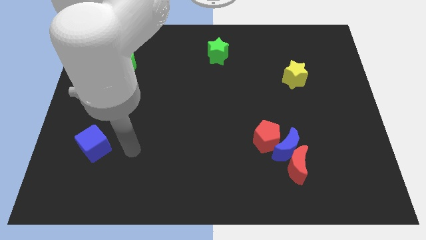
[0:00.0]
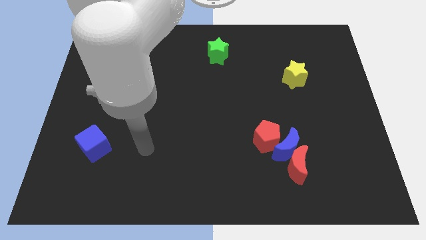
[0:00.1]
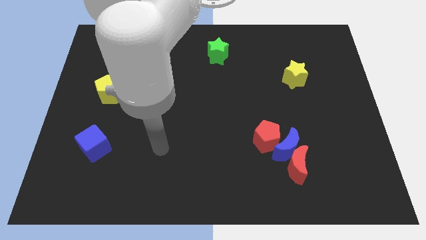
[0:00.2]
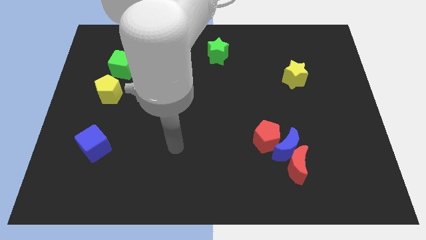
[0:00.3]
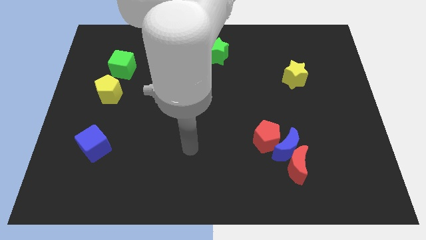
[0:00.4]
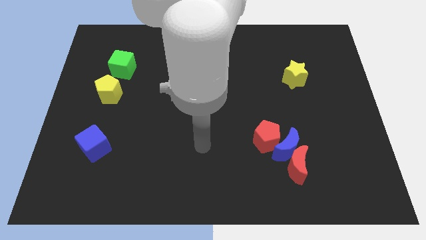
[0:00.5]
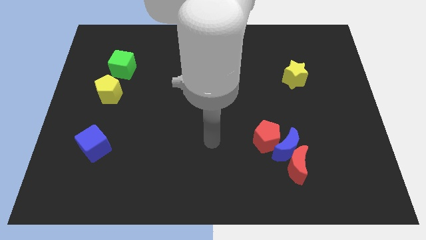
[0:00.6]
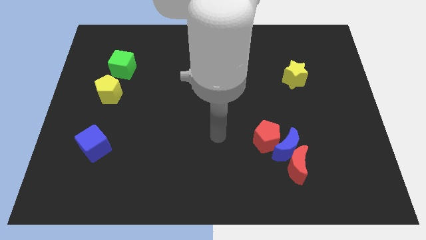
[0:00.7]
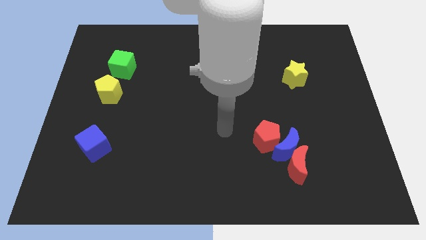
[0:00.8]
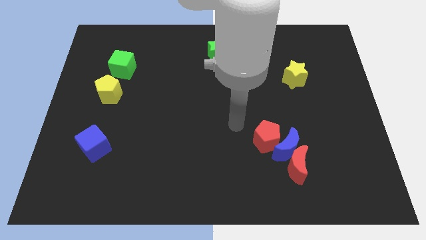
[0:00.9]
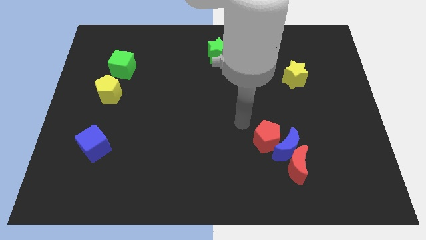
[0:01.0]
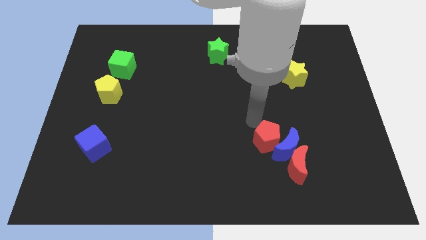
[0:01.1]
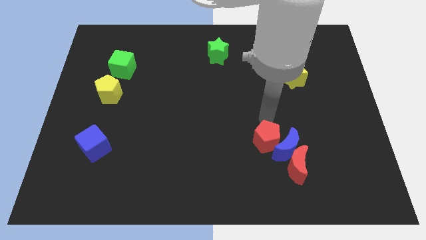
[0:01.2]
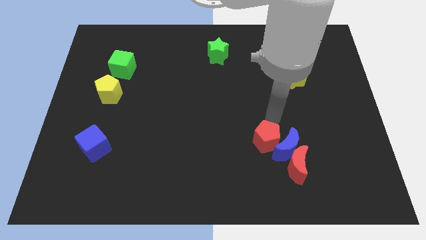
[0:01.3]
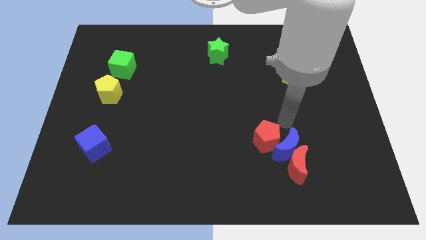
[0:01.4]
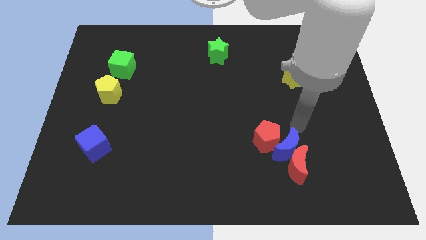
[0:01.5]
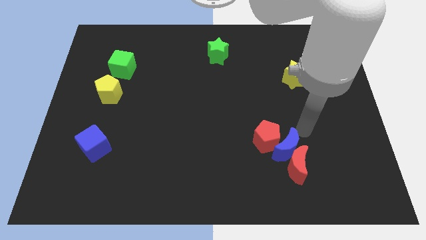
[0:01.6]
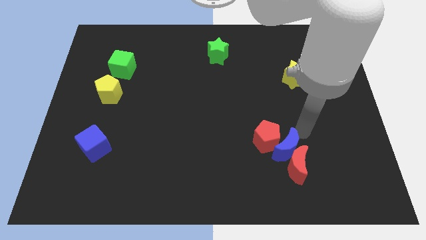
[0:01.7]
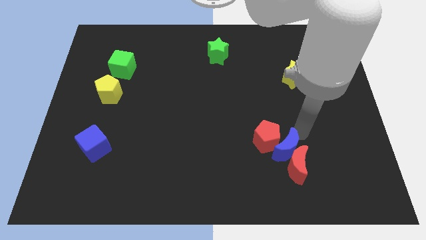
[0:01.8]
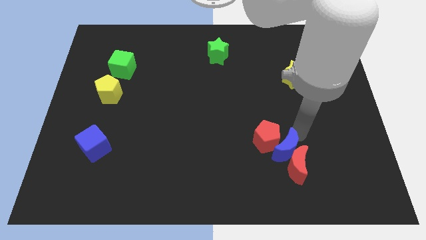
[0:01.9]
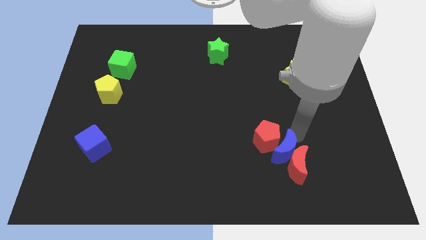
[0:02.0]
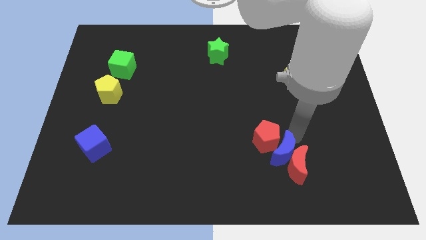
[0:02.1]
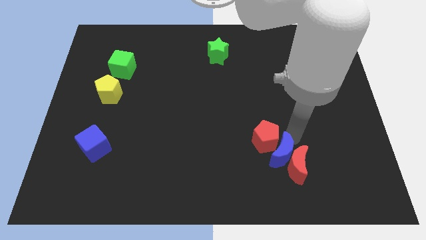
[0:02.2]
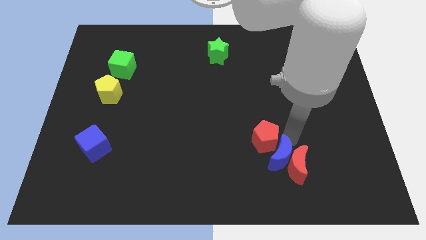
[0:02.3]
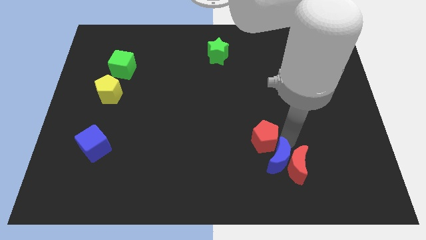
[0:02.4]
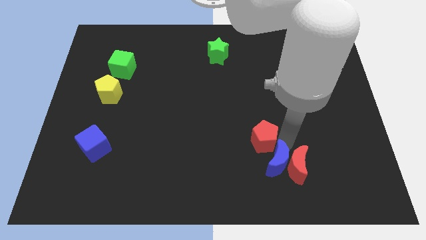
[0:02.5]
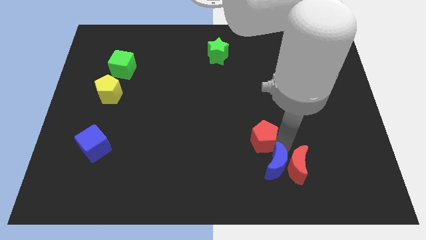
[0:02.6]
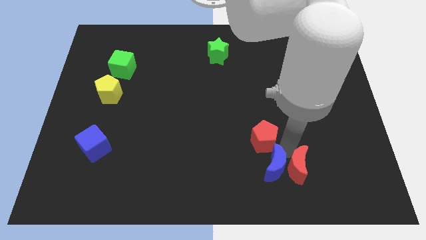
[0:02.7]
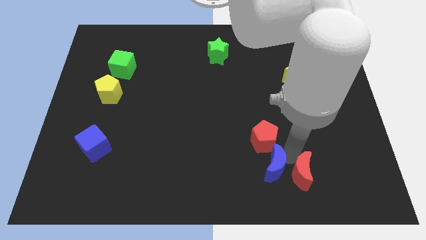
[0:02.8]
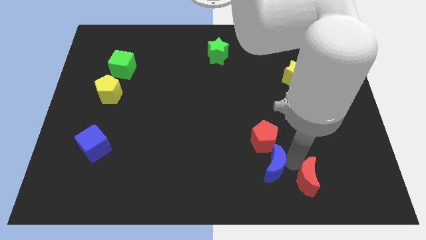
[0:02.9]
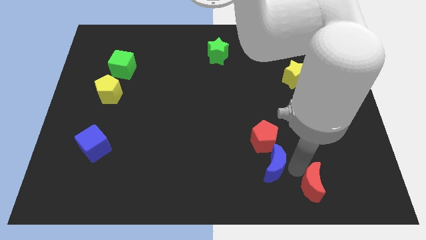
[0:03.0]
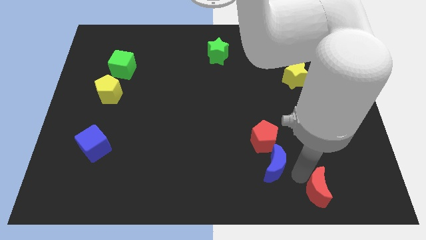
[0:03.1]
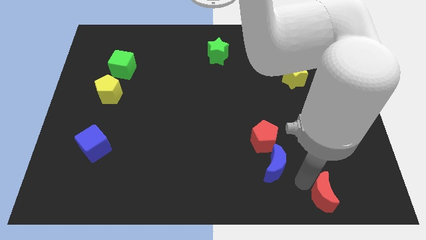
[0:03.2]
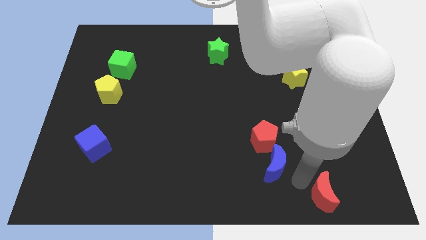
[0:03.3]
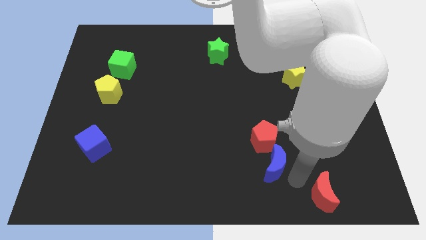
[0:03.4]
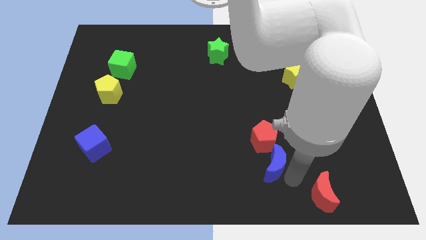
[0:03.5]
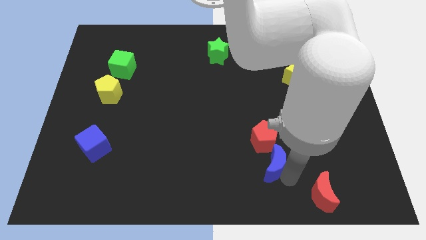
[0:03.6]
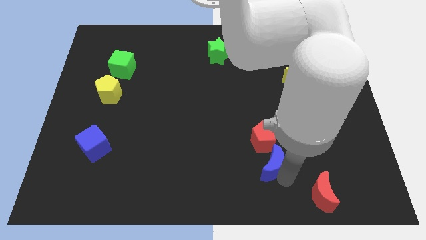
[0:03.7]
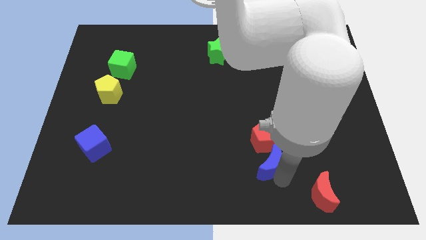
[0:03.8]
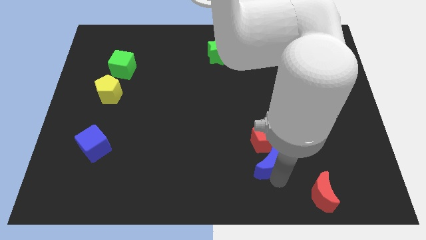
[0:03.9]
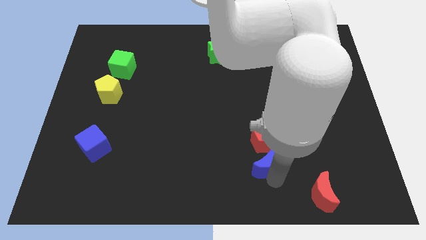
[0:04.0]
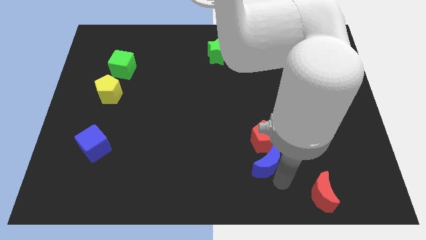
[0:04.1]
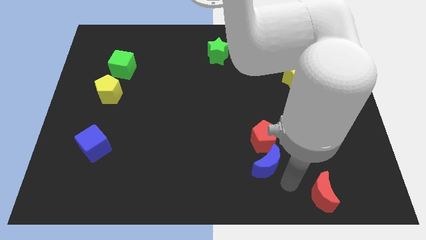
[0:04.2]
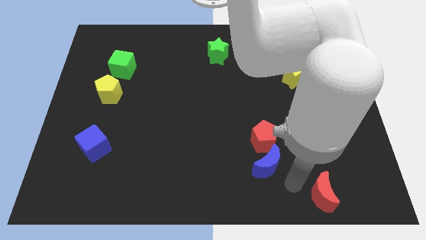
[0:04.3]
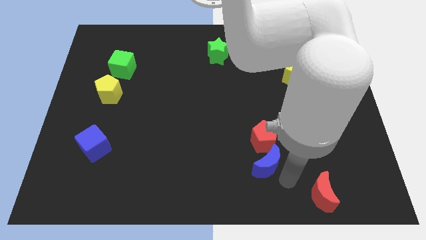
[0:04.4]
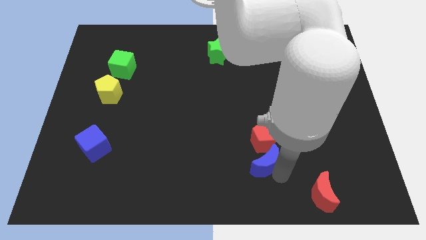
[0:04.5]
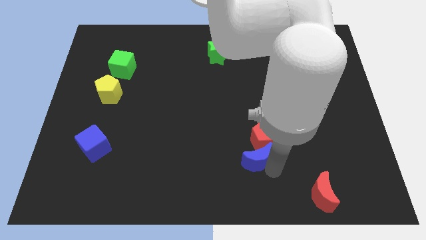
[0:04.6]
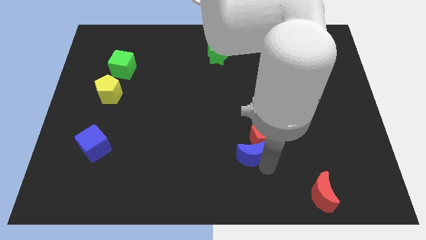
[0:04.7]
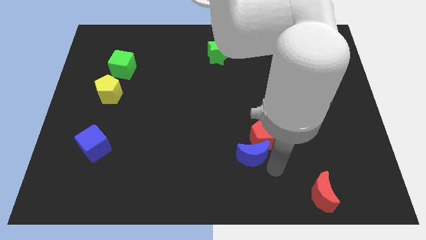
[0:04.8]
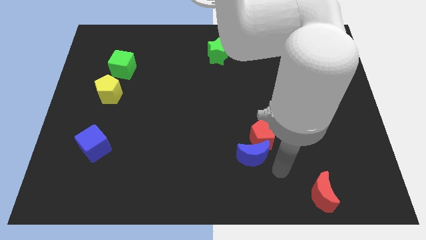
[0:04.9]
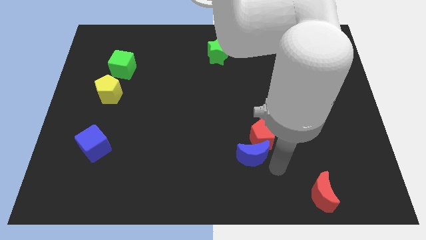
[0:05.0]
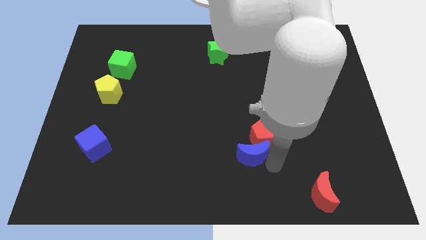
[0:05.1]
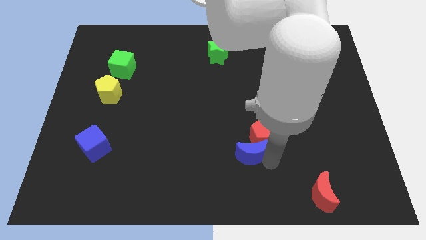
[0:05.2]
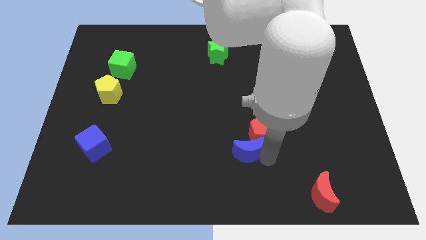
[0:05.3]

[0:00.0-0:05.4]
put the blue moon left of the red pentagon

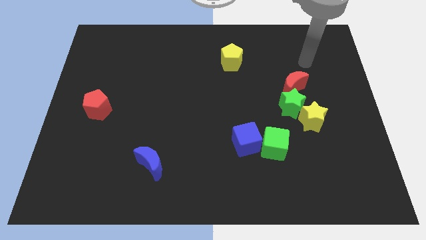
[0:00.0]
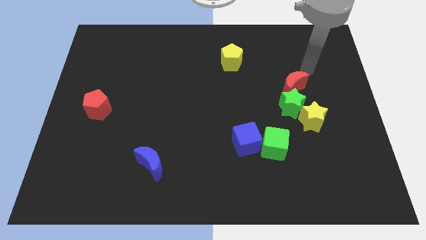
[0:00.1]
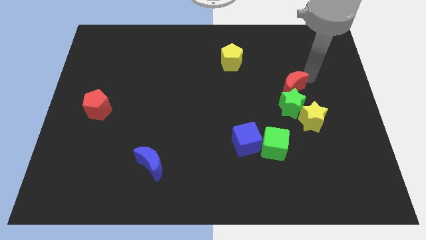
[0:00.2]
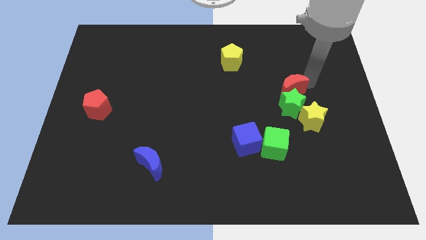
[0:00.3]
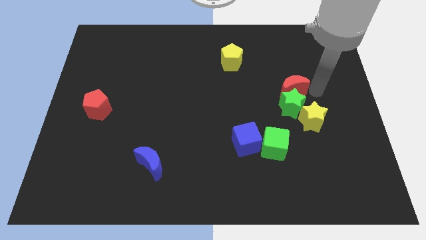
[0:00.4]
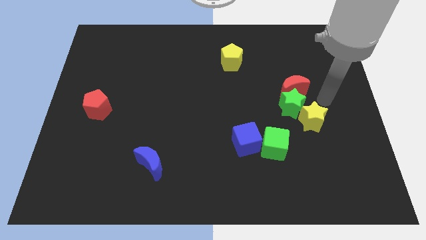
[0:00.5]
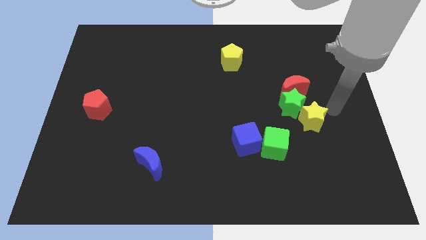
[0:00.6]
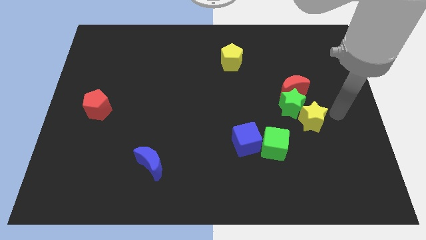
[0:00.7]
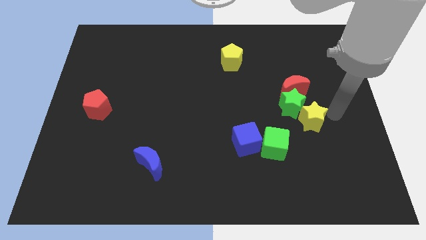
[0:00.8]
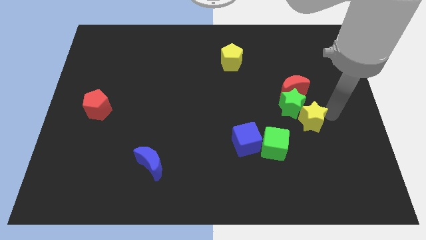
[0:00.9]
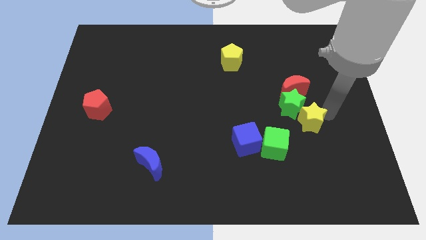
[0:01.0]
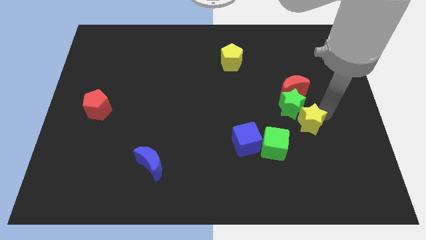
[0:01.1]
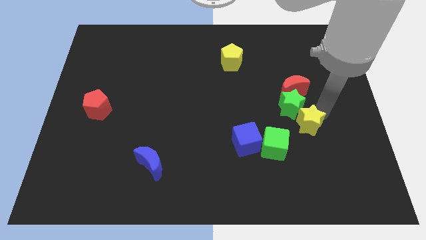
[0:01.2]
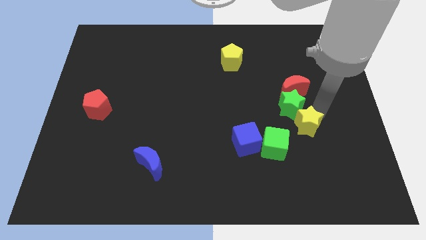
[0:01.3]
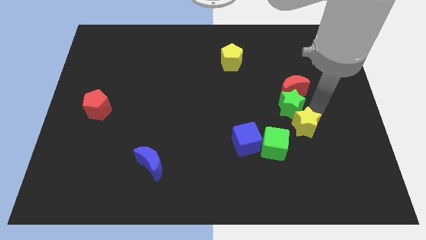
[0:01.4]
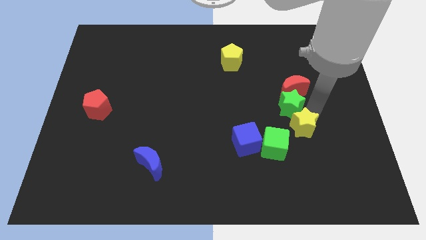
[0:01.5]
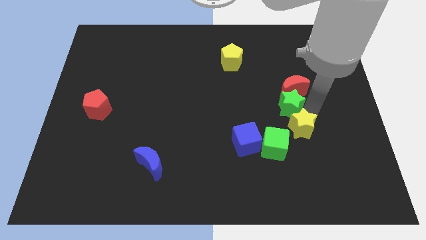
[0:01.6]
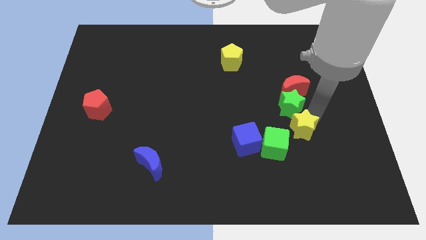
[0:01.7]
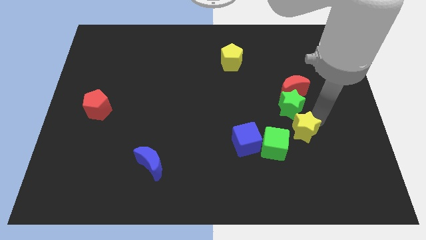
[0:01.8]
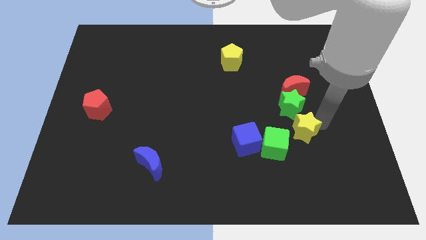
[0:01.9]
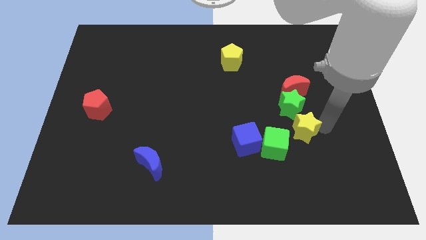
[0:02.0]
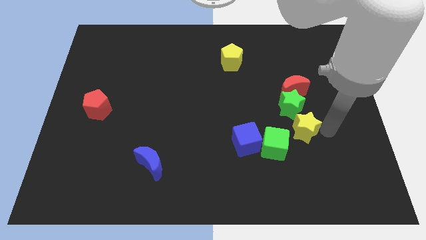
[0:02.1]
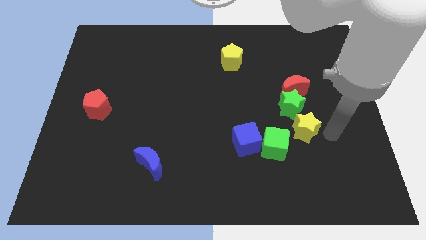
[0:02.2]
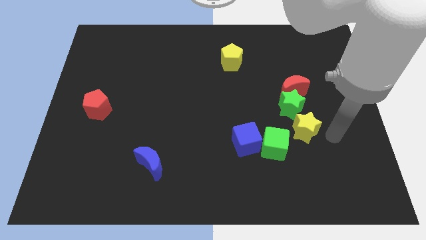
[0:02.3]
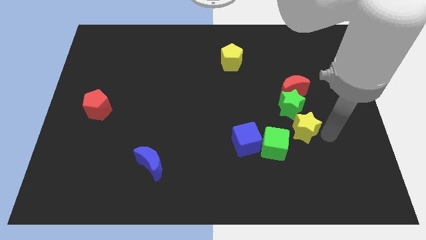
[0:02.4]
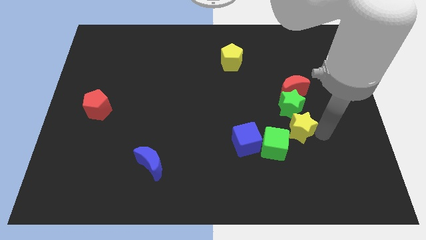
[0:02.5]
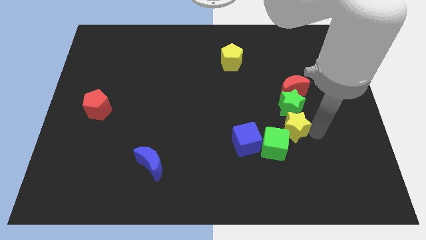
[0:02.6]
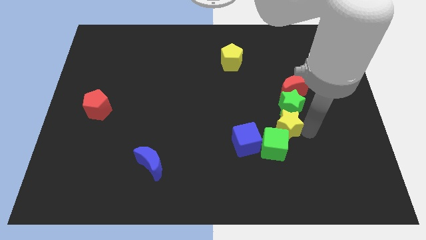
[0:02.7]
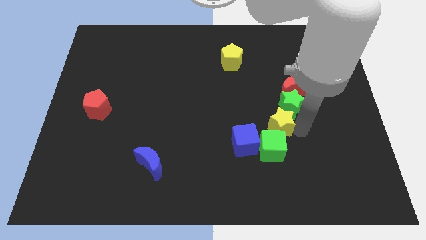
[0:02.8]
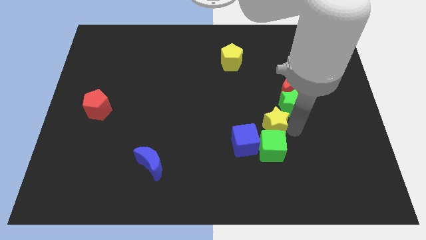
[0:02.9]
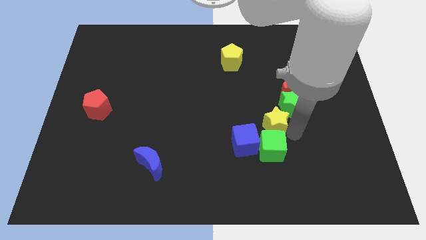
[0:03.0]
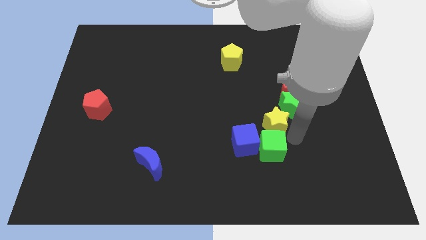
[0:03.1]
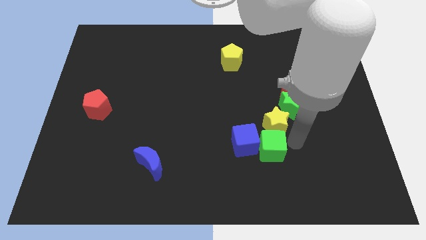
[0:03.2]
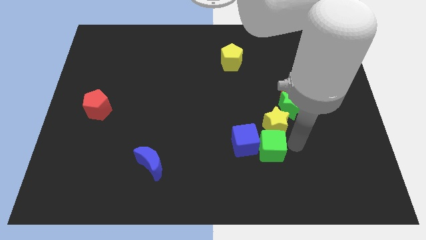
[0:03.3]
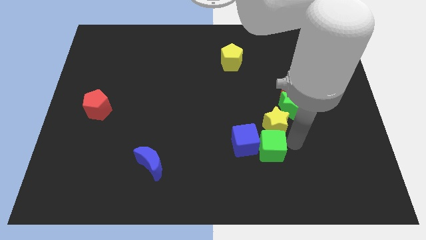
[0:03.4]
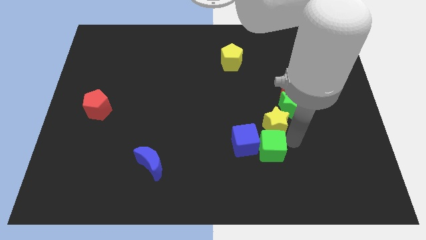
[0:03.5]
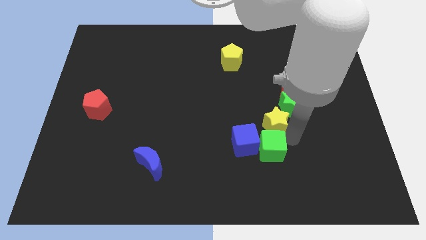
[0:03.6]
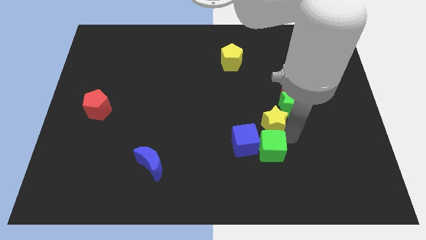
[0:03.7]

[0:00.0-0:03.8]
put the yellow star to the left of the green star
